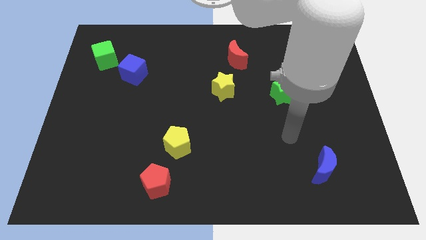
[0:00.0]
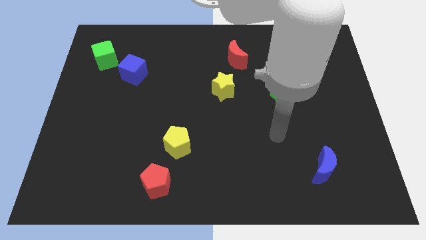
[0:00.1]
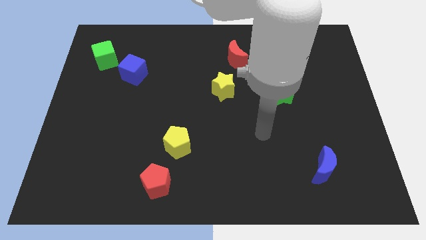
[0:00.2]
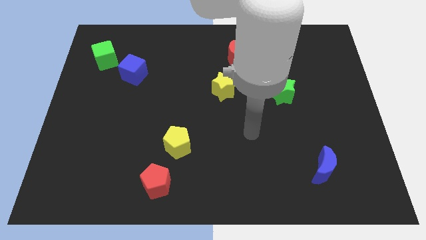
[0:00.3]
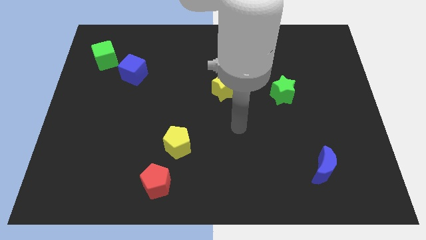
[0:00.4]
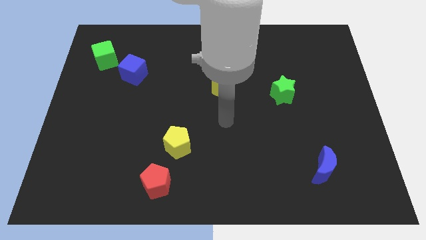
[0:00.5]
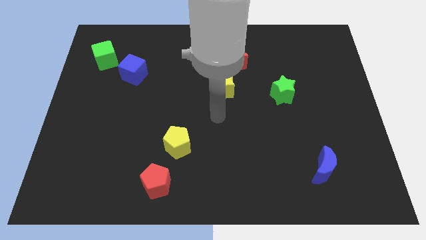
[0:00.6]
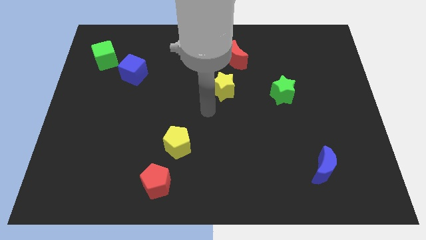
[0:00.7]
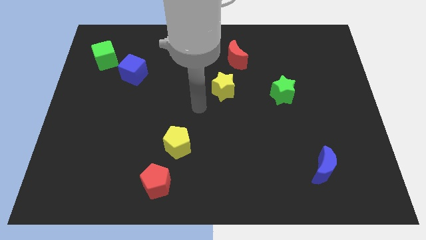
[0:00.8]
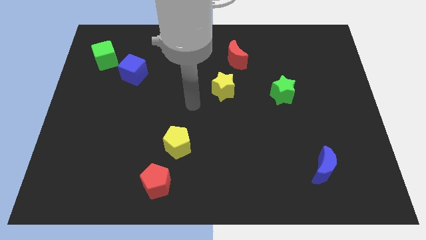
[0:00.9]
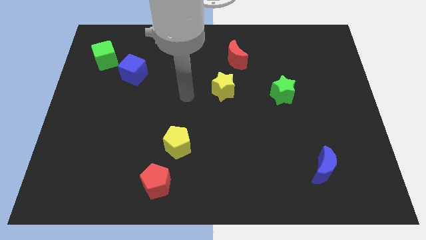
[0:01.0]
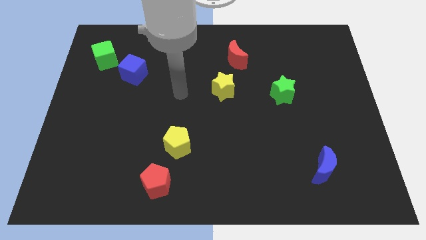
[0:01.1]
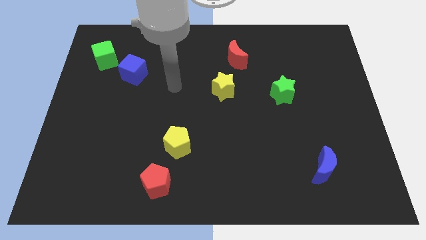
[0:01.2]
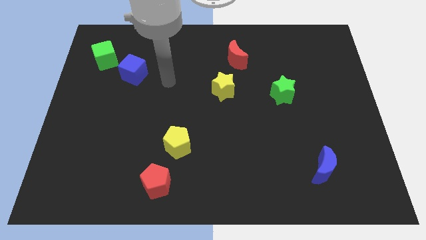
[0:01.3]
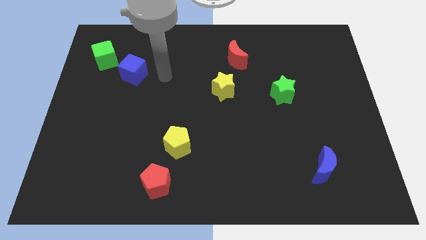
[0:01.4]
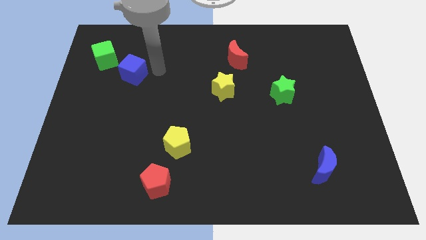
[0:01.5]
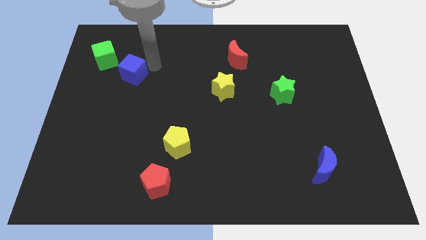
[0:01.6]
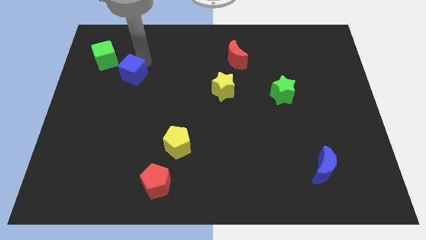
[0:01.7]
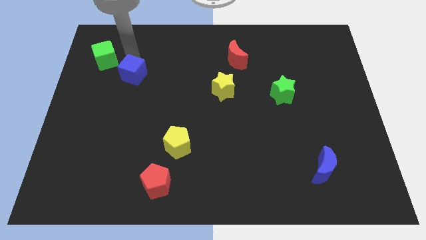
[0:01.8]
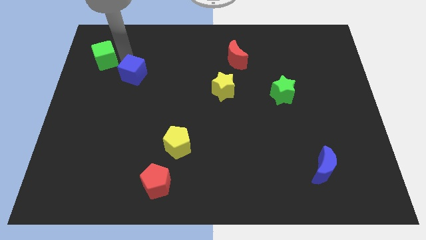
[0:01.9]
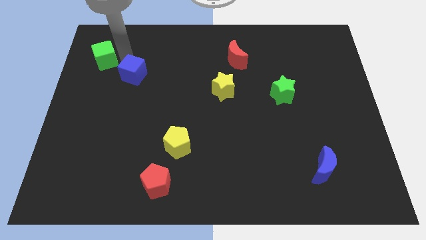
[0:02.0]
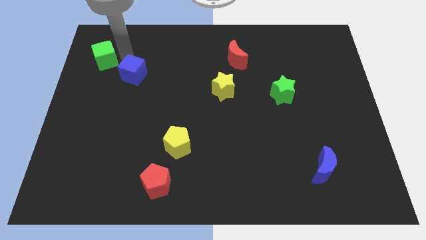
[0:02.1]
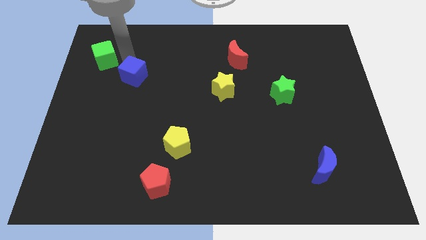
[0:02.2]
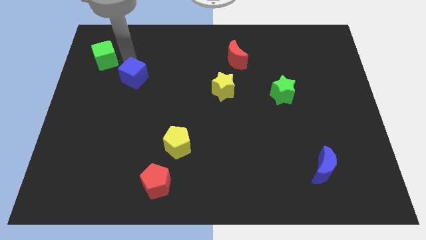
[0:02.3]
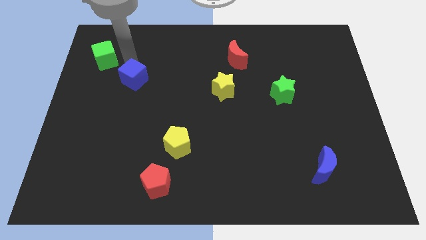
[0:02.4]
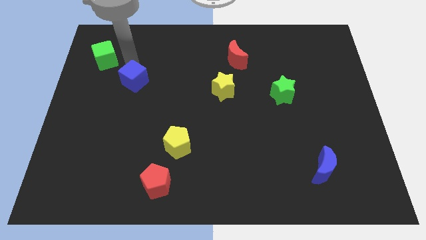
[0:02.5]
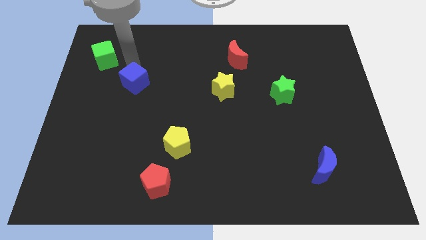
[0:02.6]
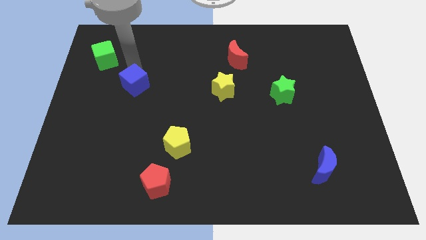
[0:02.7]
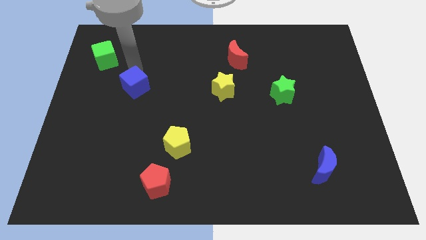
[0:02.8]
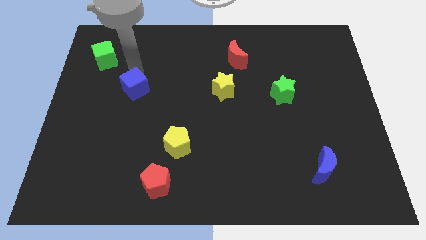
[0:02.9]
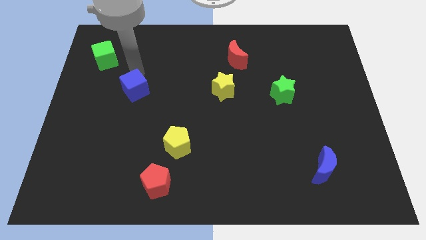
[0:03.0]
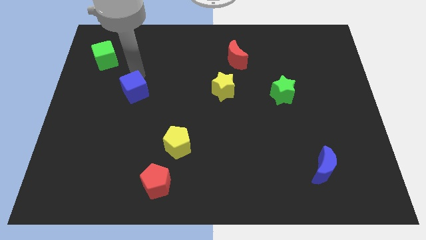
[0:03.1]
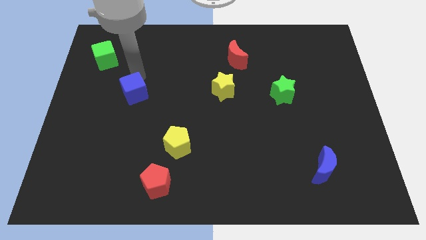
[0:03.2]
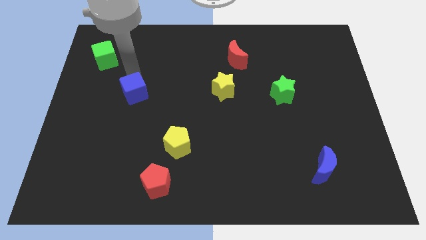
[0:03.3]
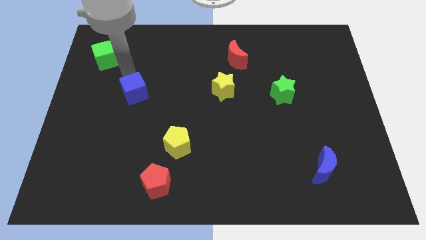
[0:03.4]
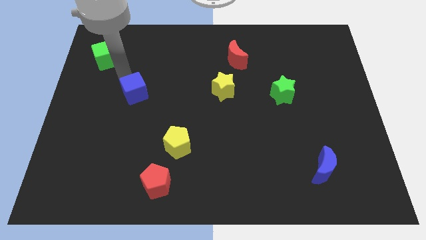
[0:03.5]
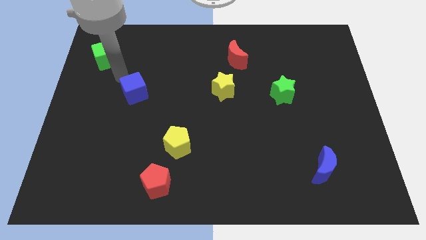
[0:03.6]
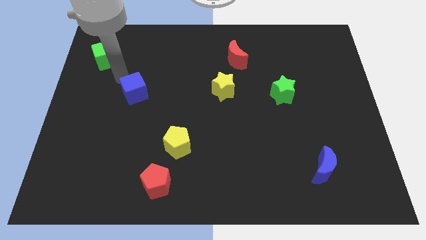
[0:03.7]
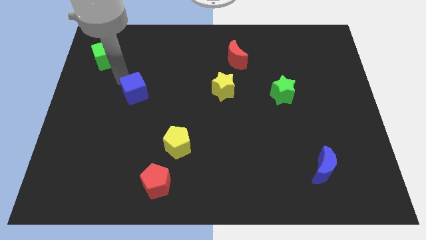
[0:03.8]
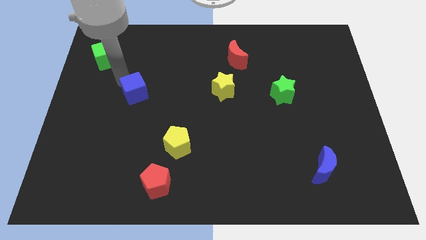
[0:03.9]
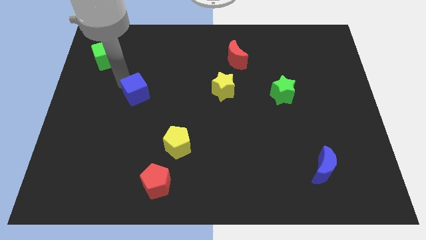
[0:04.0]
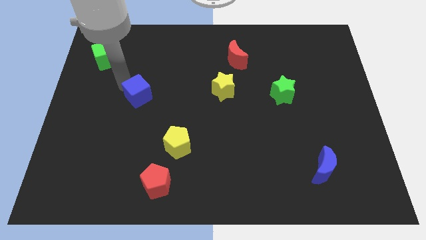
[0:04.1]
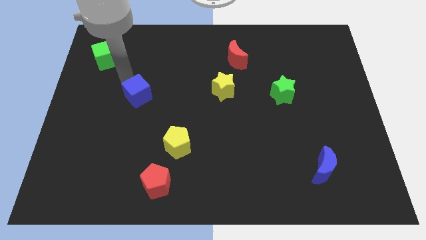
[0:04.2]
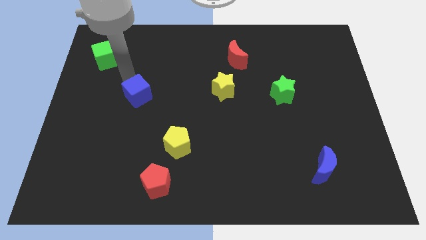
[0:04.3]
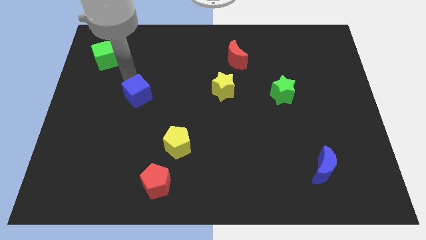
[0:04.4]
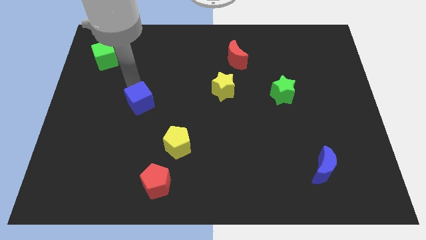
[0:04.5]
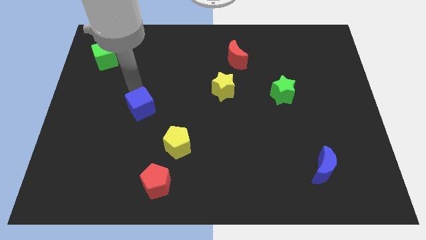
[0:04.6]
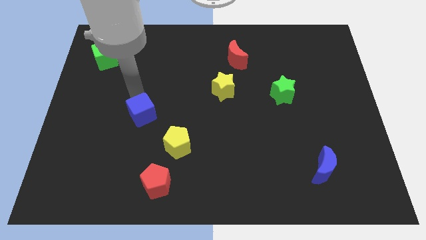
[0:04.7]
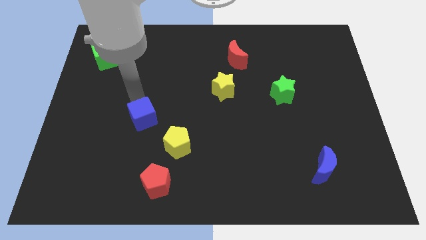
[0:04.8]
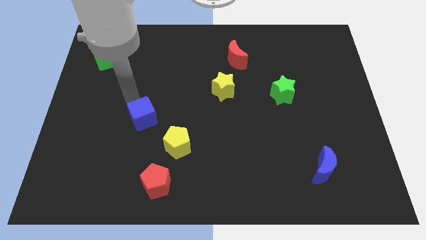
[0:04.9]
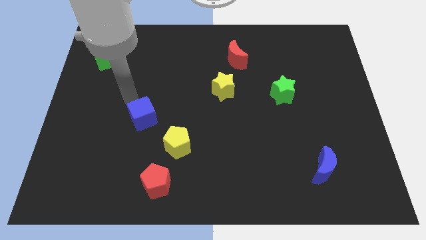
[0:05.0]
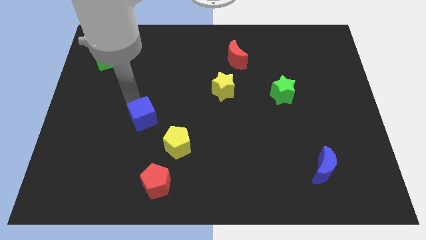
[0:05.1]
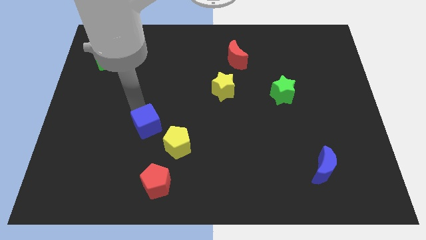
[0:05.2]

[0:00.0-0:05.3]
slide the blue cube to the top of the red pentagon
